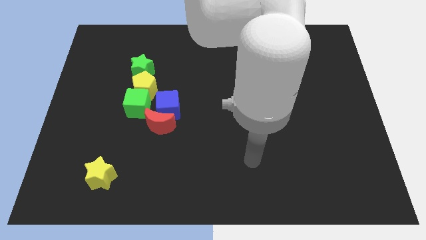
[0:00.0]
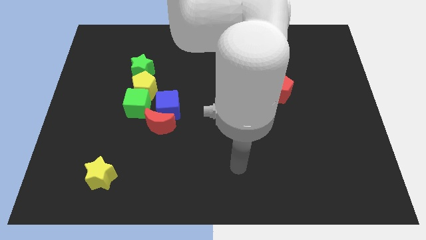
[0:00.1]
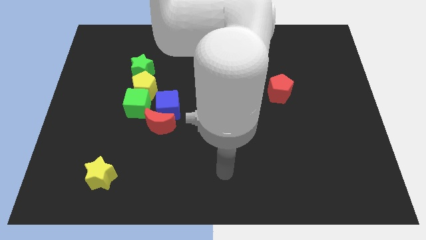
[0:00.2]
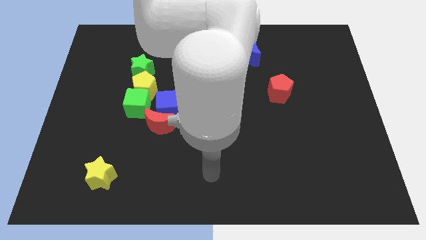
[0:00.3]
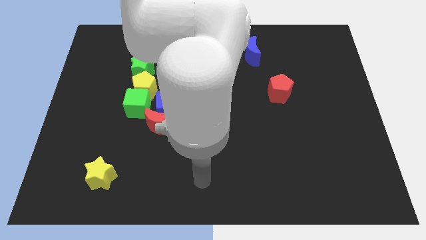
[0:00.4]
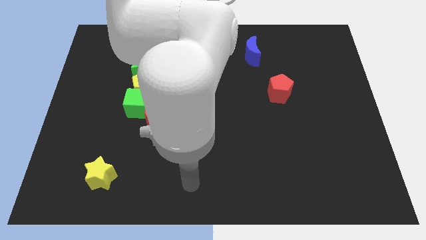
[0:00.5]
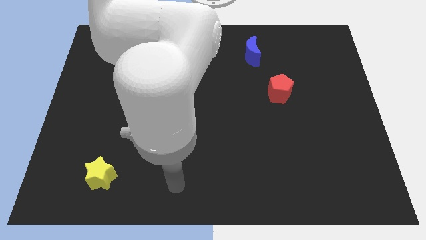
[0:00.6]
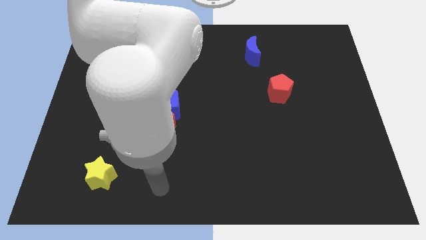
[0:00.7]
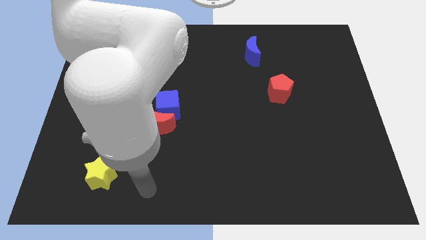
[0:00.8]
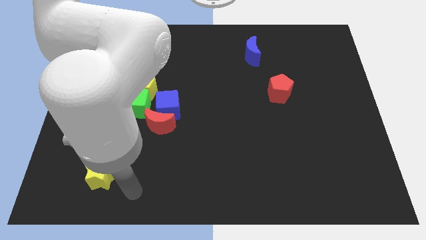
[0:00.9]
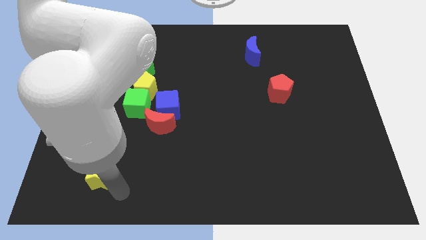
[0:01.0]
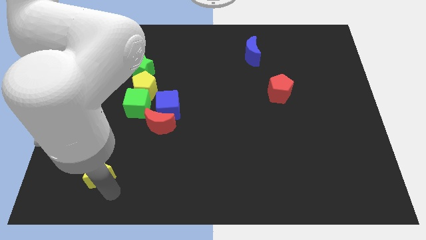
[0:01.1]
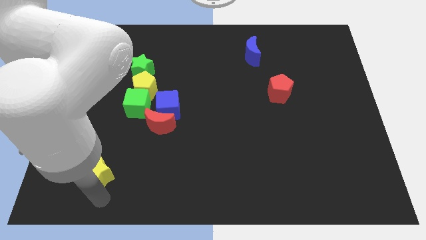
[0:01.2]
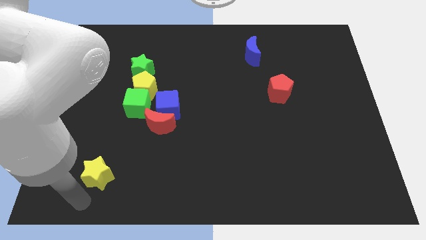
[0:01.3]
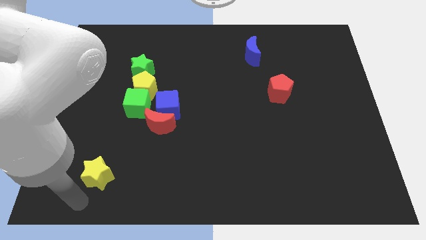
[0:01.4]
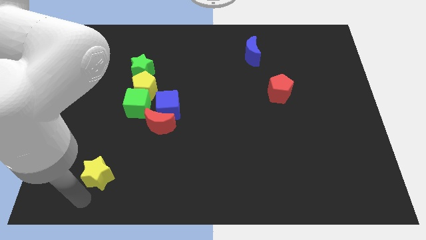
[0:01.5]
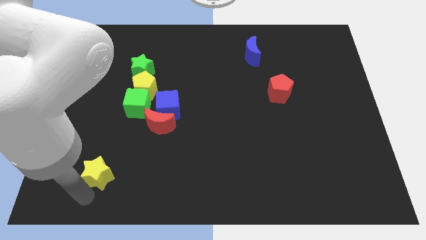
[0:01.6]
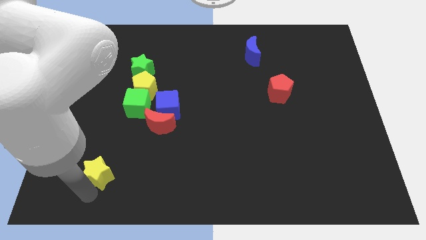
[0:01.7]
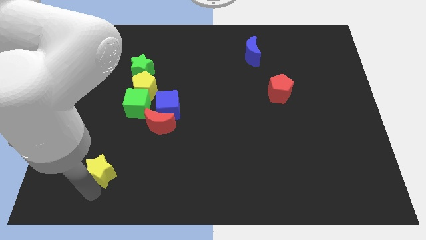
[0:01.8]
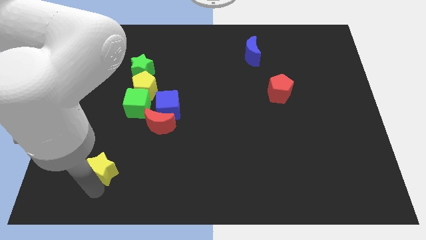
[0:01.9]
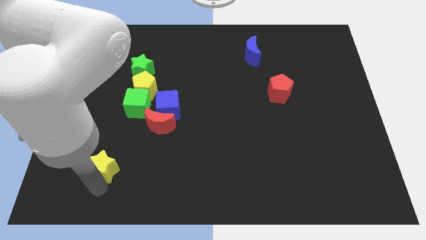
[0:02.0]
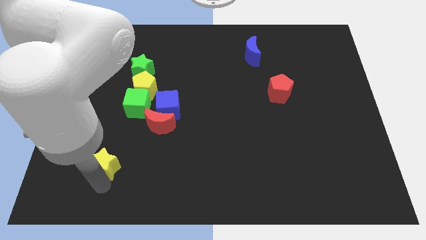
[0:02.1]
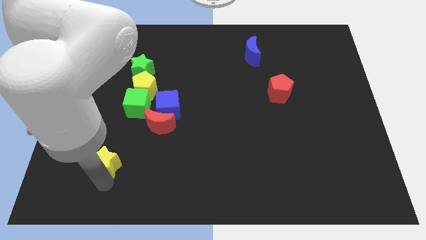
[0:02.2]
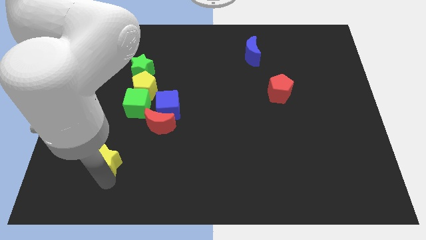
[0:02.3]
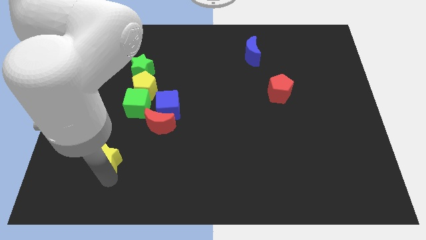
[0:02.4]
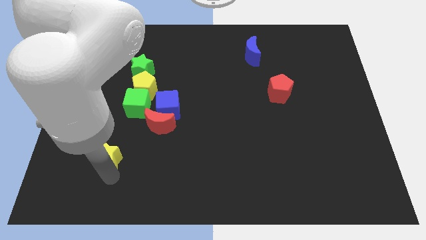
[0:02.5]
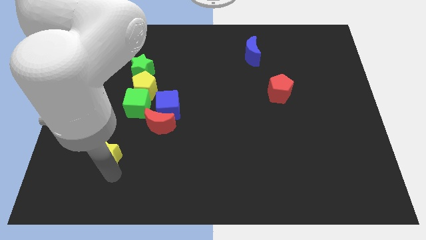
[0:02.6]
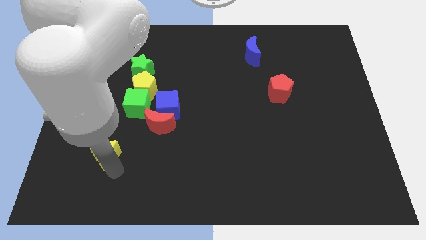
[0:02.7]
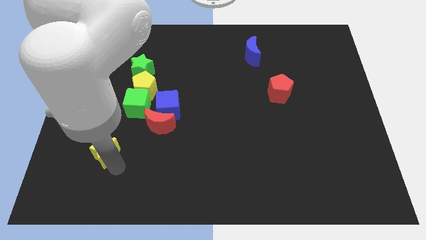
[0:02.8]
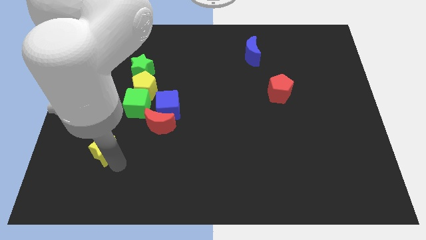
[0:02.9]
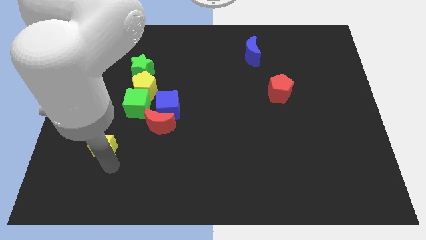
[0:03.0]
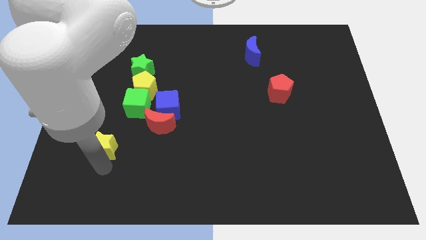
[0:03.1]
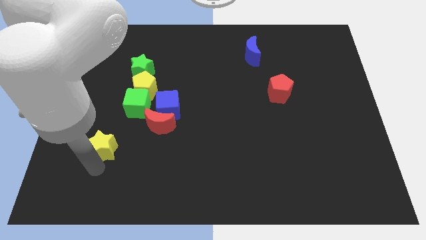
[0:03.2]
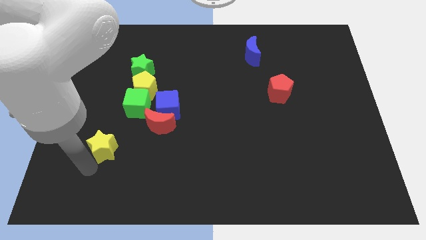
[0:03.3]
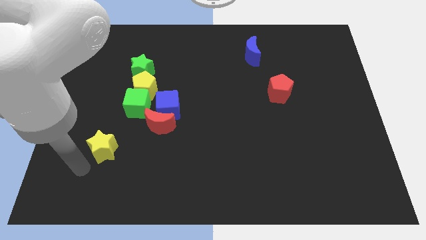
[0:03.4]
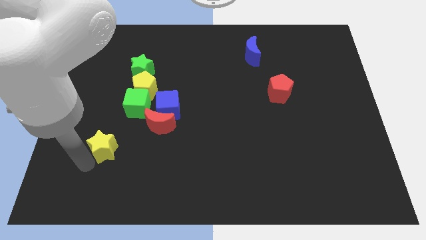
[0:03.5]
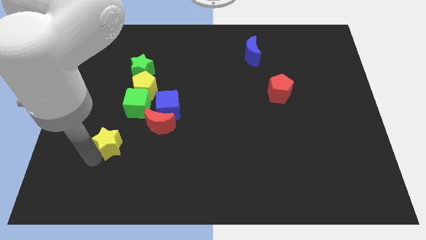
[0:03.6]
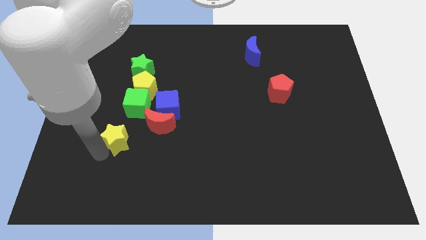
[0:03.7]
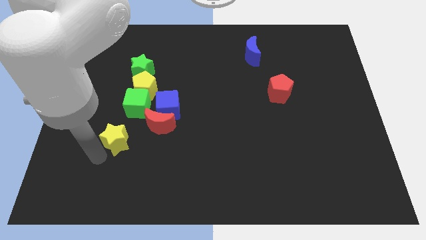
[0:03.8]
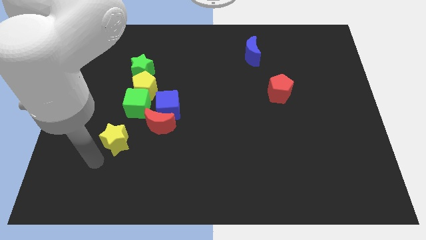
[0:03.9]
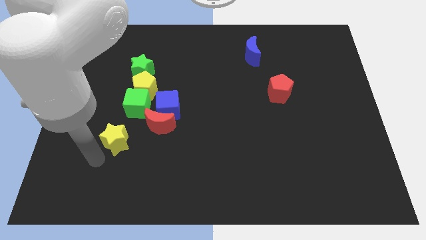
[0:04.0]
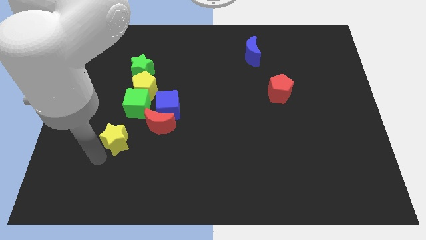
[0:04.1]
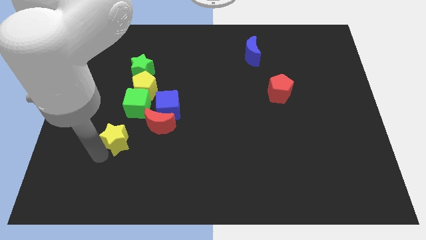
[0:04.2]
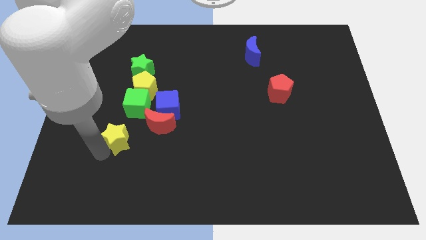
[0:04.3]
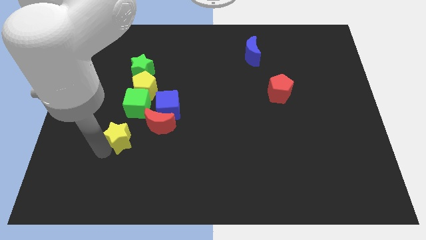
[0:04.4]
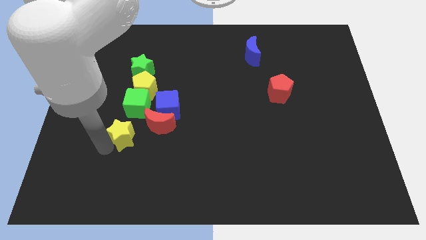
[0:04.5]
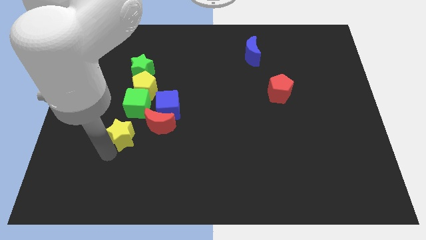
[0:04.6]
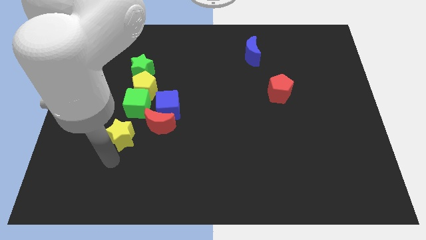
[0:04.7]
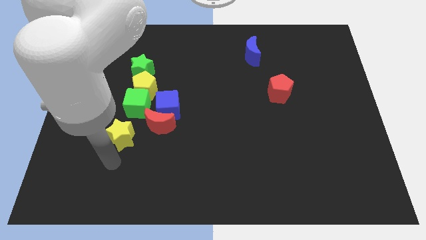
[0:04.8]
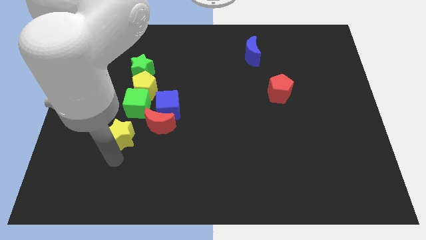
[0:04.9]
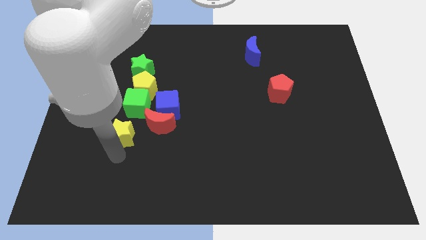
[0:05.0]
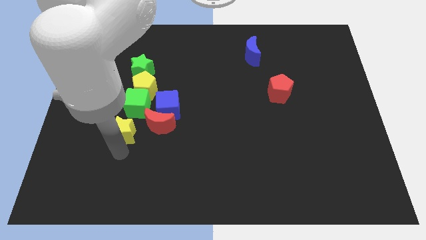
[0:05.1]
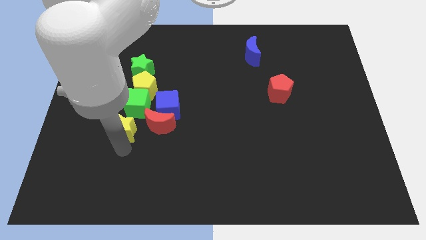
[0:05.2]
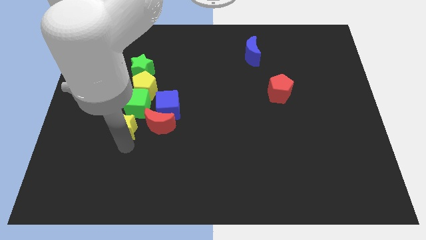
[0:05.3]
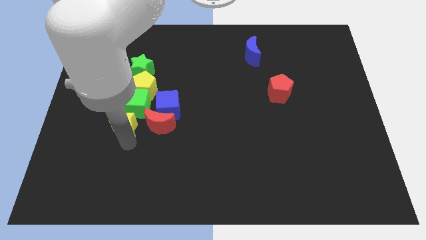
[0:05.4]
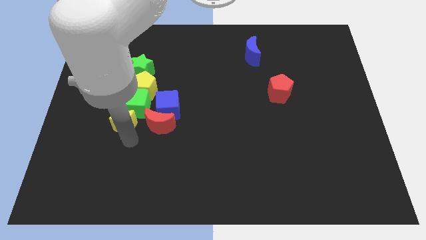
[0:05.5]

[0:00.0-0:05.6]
push the yellow star next to the green cube

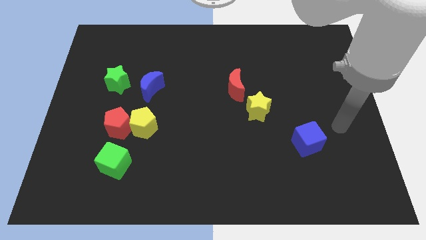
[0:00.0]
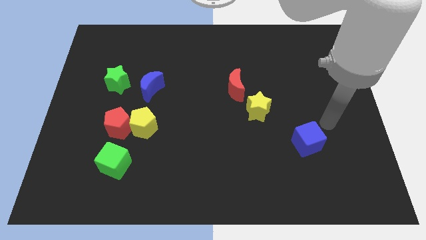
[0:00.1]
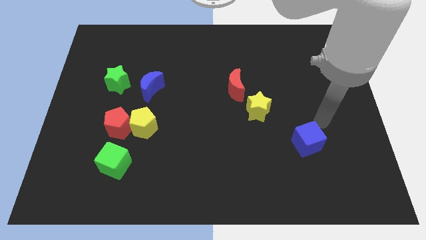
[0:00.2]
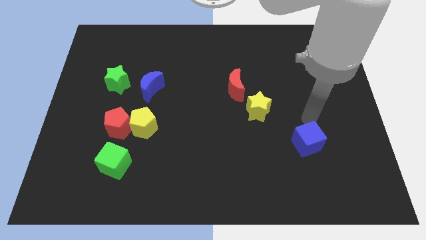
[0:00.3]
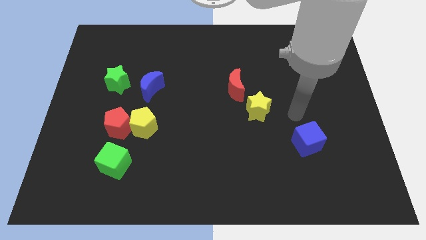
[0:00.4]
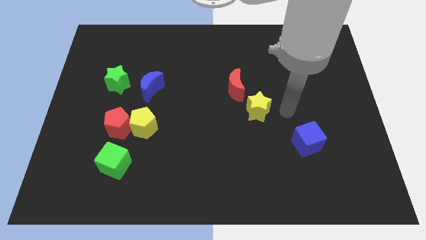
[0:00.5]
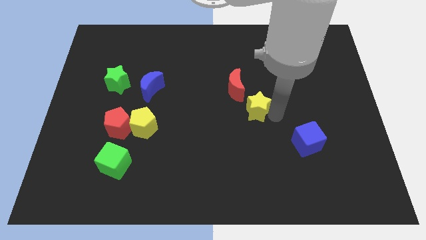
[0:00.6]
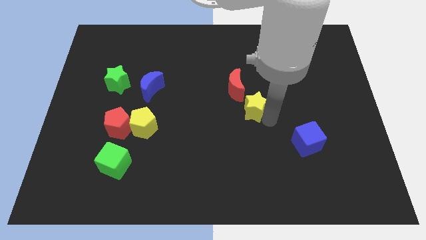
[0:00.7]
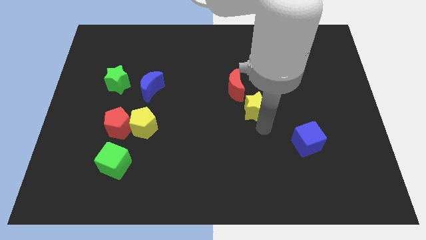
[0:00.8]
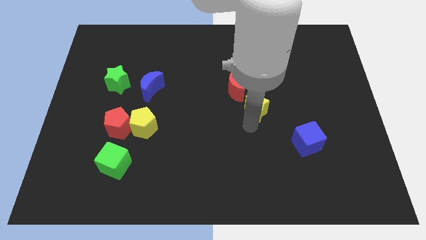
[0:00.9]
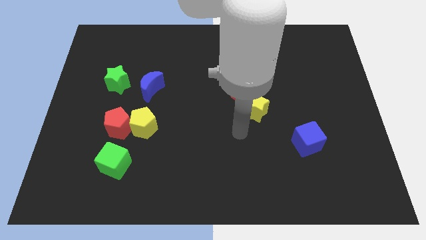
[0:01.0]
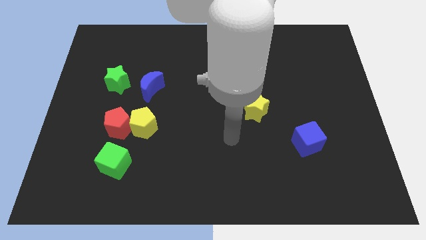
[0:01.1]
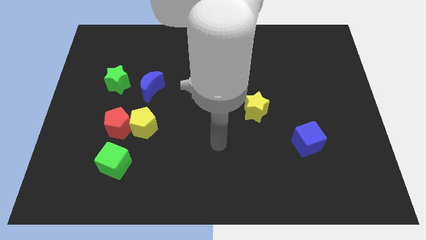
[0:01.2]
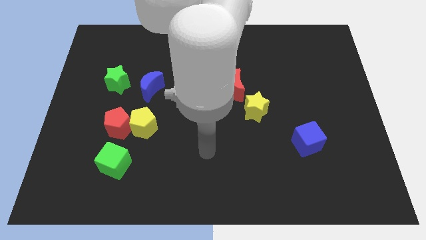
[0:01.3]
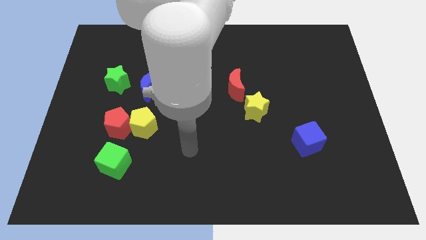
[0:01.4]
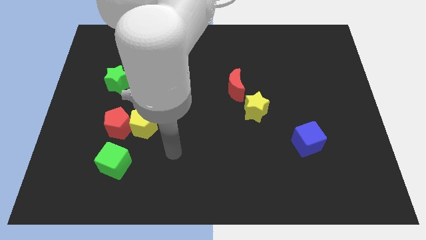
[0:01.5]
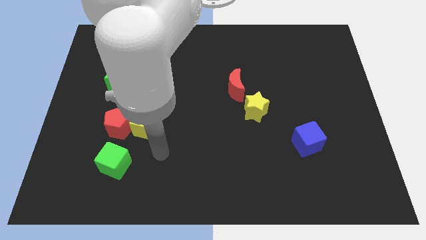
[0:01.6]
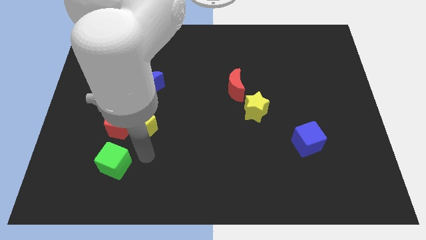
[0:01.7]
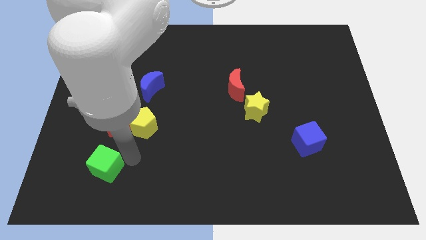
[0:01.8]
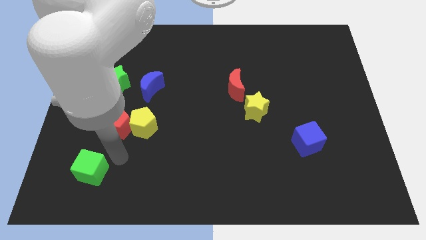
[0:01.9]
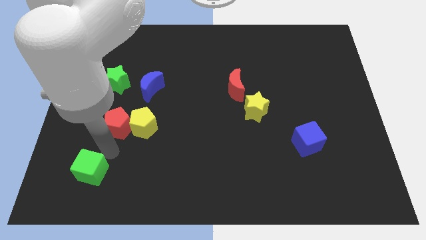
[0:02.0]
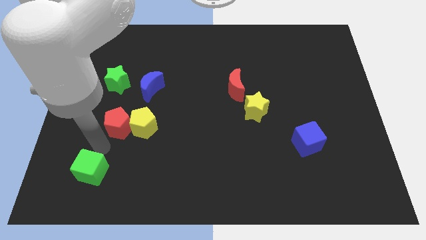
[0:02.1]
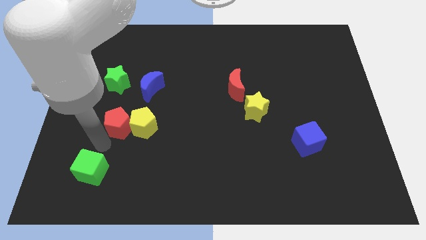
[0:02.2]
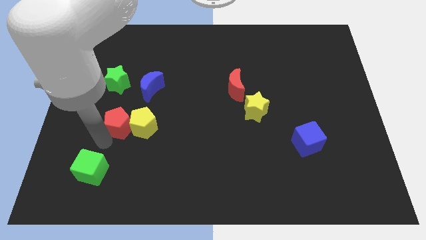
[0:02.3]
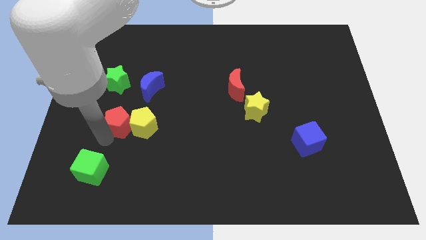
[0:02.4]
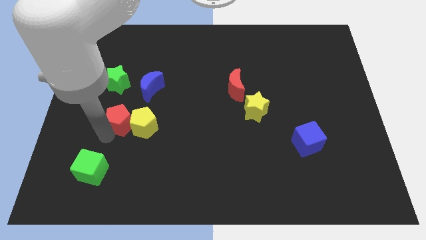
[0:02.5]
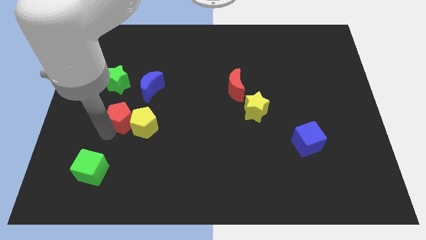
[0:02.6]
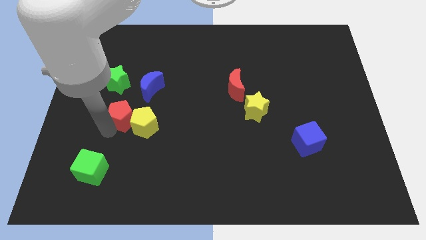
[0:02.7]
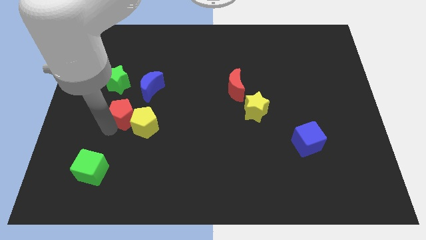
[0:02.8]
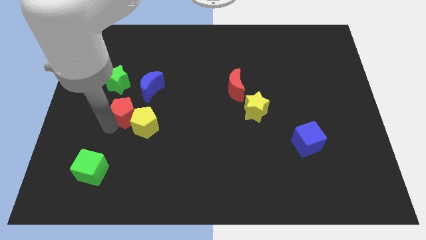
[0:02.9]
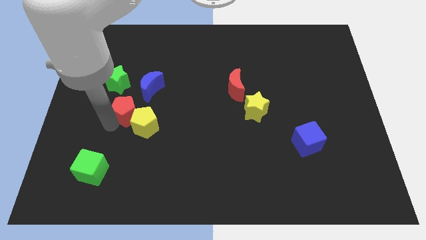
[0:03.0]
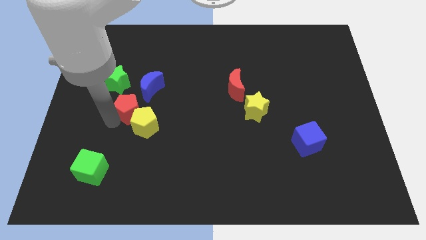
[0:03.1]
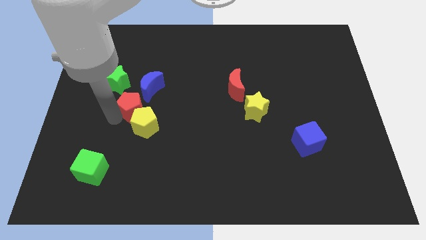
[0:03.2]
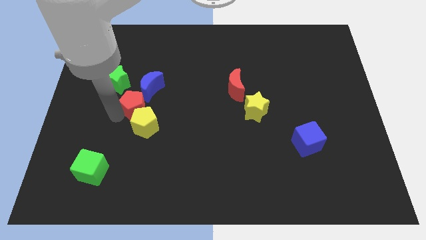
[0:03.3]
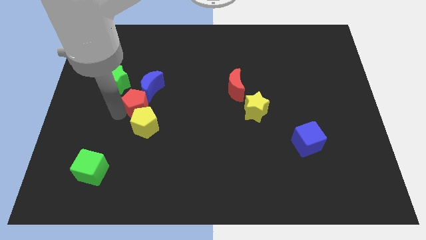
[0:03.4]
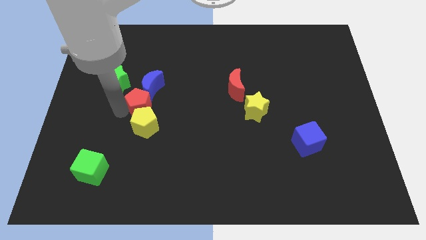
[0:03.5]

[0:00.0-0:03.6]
slide the red pentagon next to the blue moon
